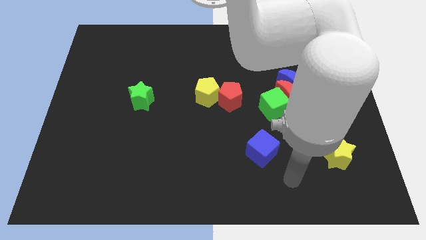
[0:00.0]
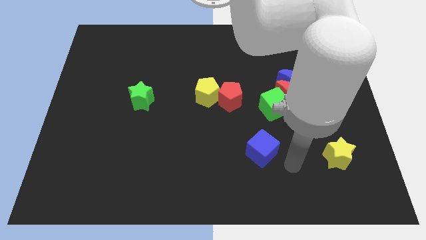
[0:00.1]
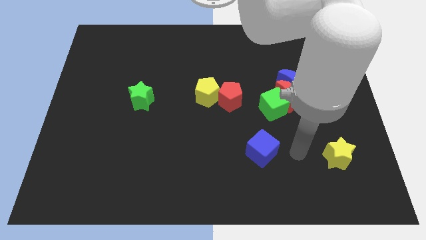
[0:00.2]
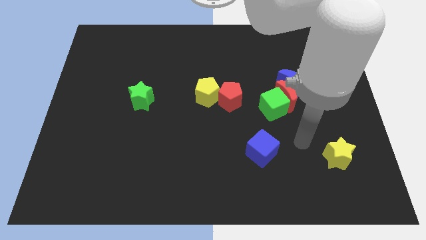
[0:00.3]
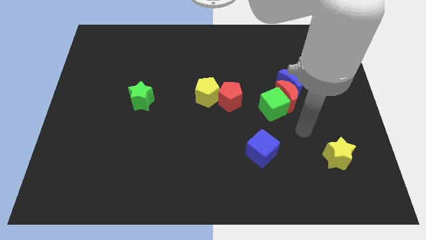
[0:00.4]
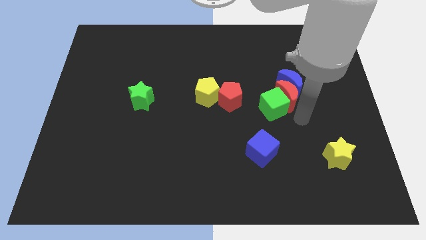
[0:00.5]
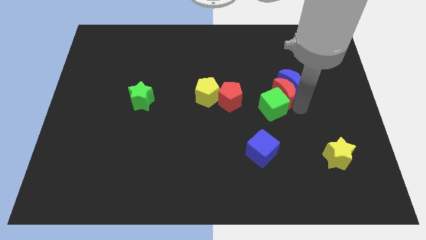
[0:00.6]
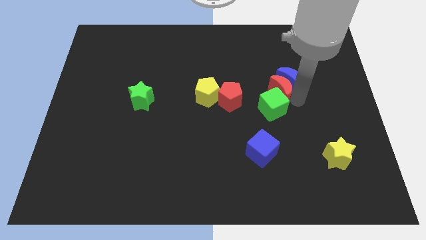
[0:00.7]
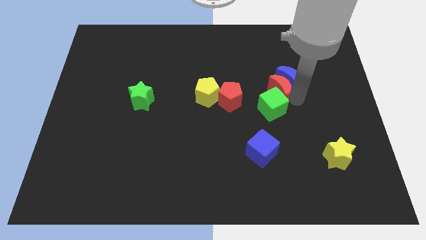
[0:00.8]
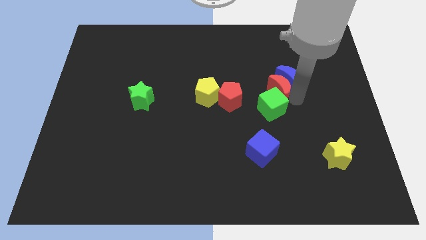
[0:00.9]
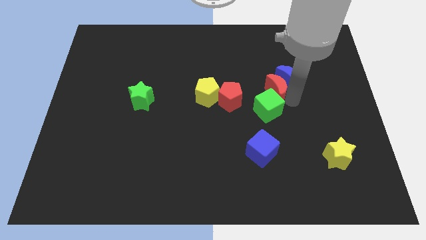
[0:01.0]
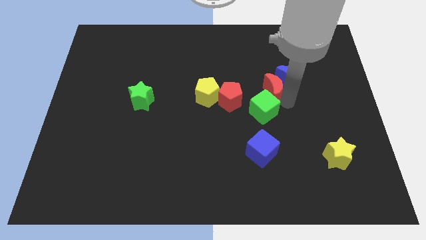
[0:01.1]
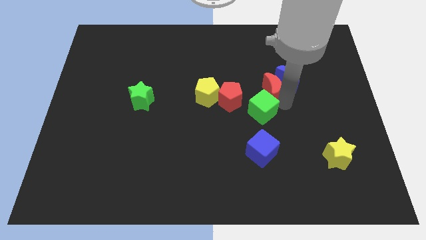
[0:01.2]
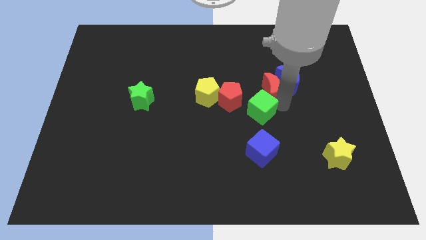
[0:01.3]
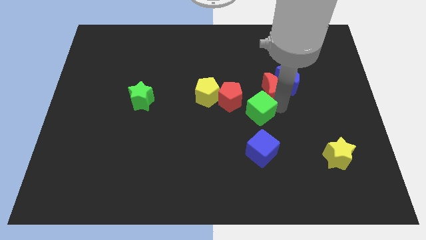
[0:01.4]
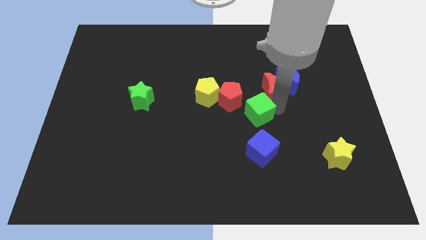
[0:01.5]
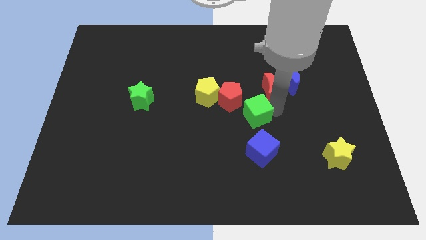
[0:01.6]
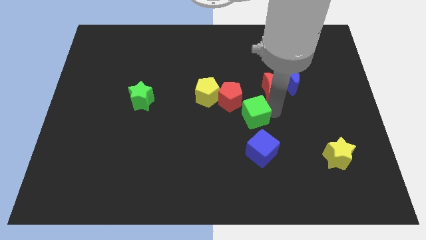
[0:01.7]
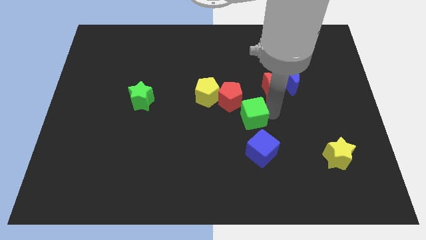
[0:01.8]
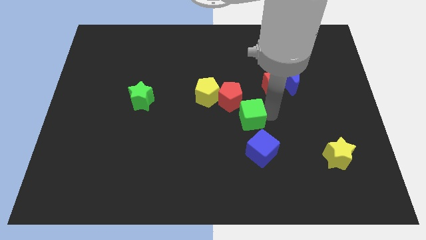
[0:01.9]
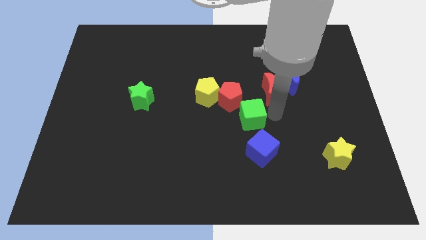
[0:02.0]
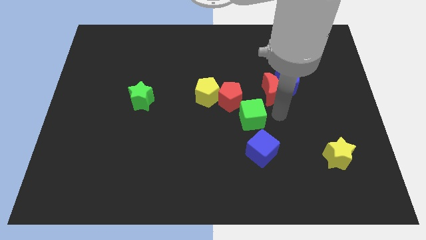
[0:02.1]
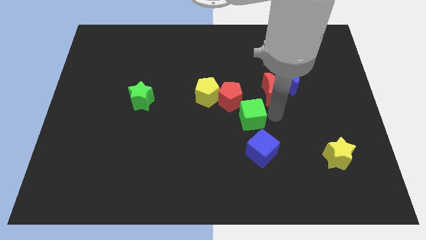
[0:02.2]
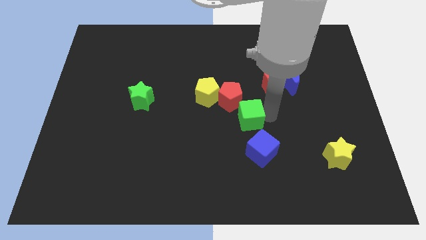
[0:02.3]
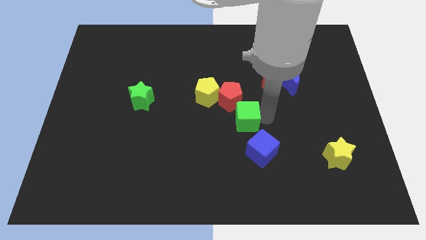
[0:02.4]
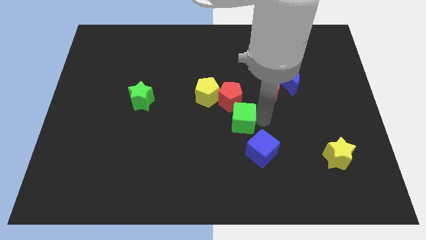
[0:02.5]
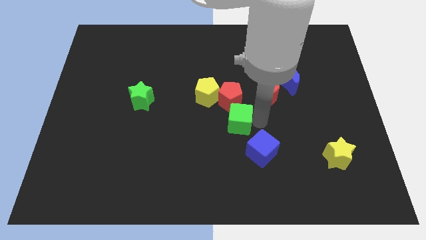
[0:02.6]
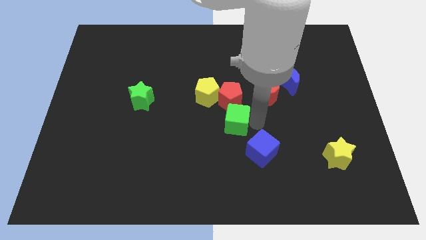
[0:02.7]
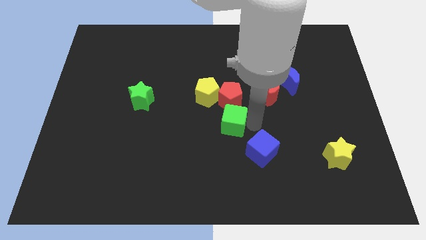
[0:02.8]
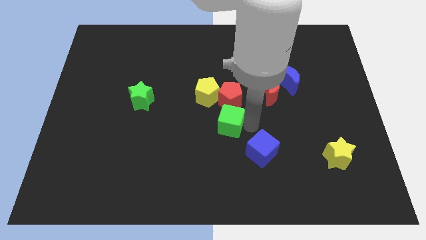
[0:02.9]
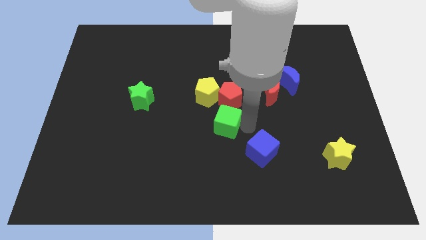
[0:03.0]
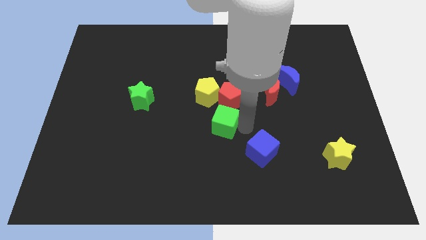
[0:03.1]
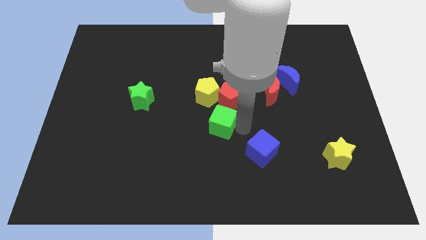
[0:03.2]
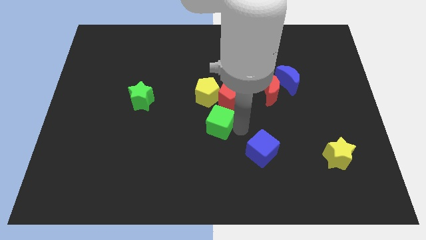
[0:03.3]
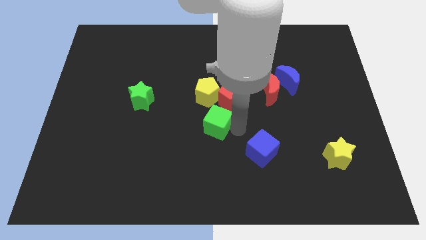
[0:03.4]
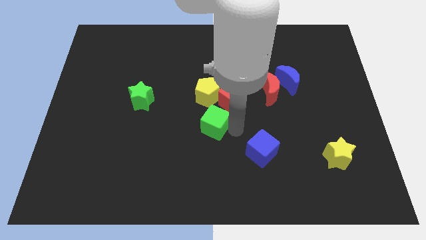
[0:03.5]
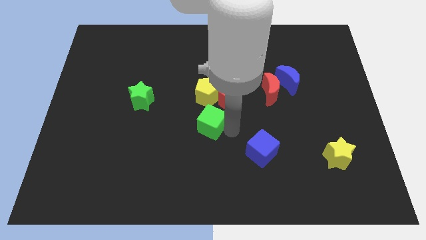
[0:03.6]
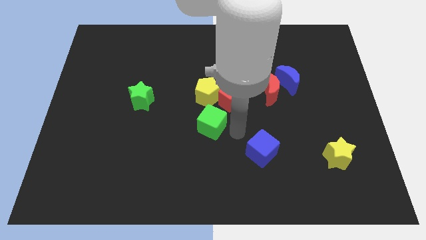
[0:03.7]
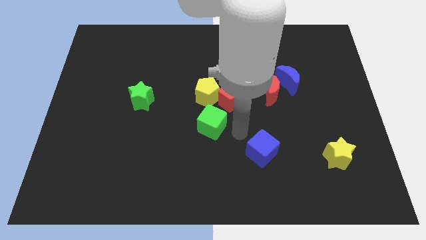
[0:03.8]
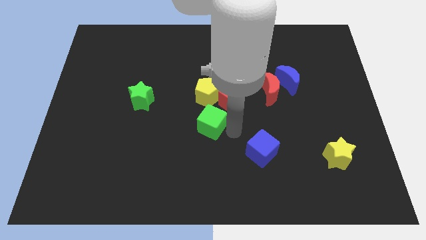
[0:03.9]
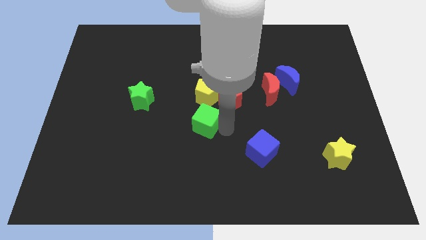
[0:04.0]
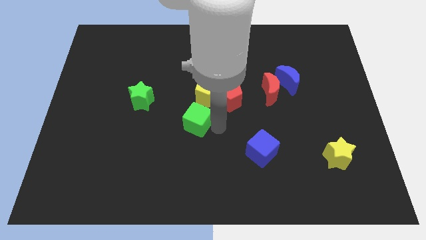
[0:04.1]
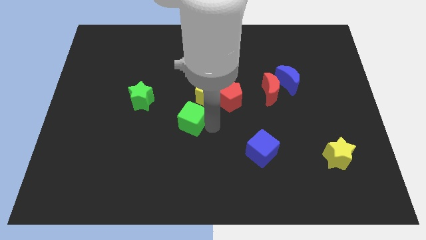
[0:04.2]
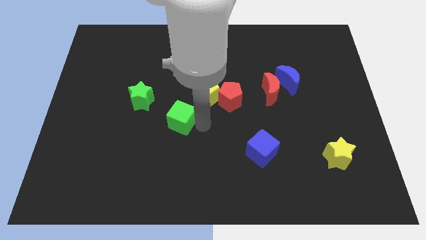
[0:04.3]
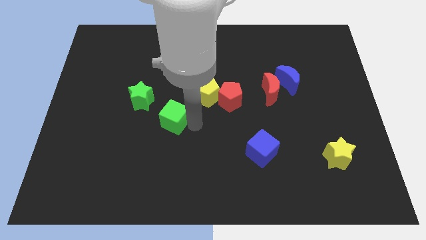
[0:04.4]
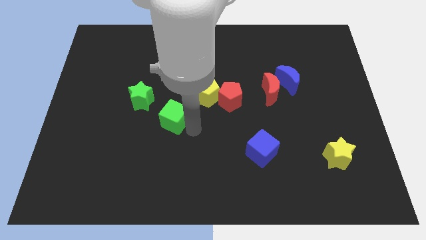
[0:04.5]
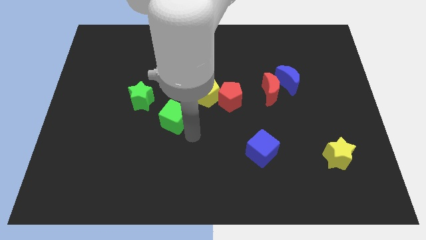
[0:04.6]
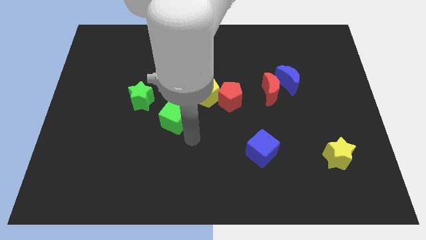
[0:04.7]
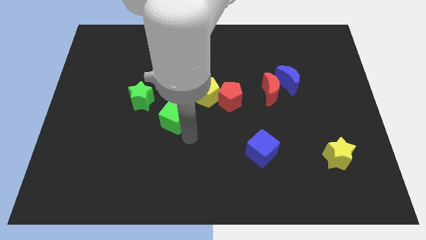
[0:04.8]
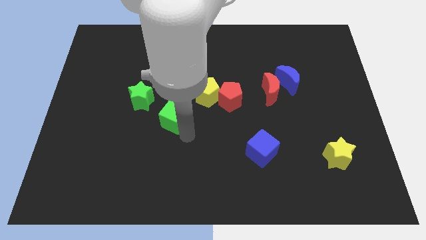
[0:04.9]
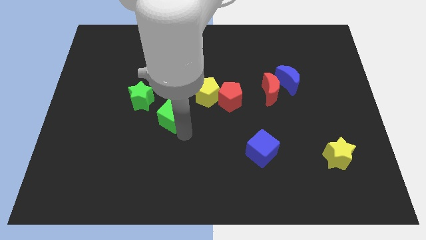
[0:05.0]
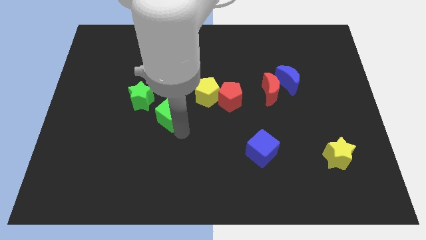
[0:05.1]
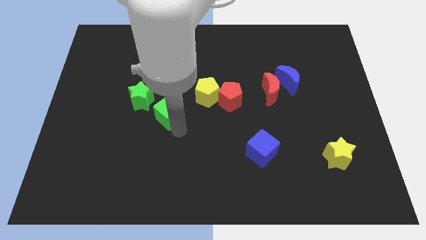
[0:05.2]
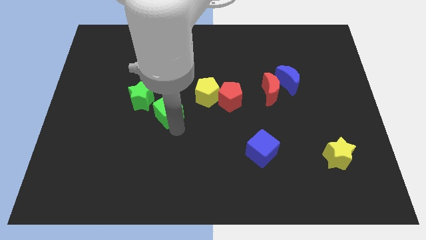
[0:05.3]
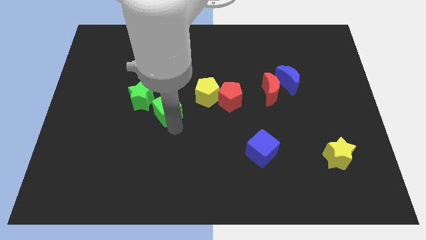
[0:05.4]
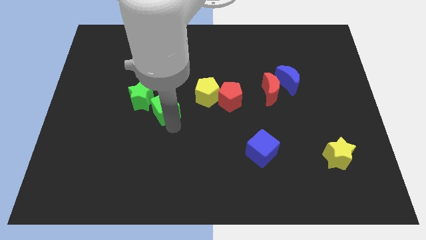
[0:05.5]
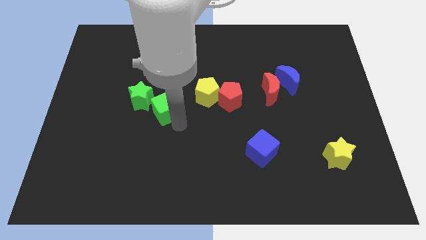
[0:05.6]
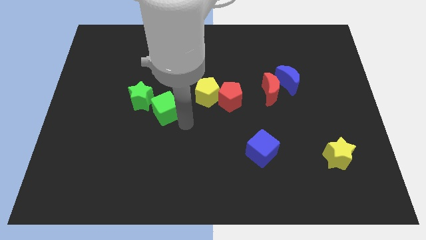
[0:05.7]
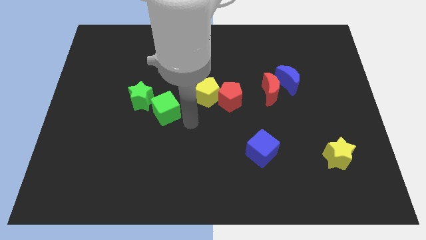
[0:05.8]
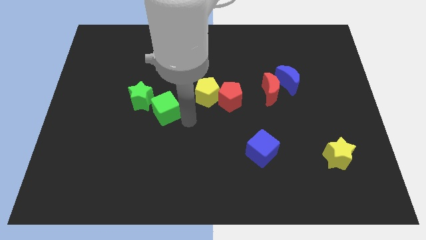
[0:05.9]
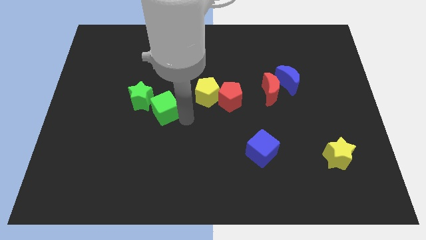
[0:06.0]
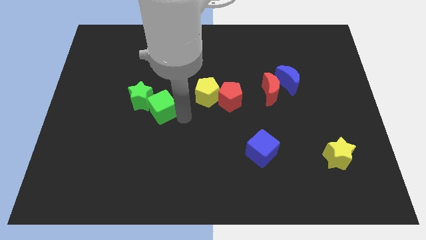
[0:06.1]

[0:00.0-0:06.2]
move the green cube next to the green star

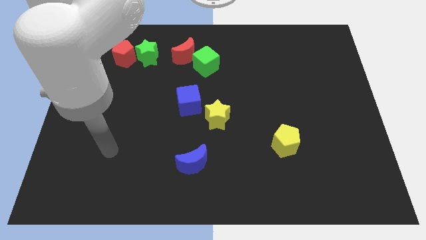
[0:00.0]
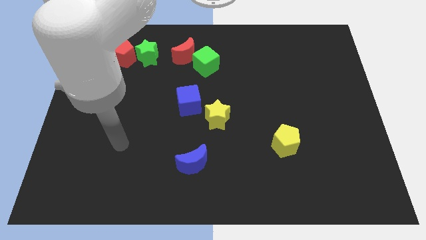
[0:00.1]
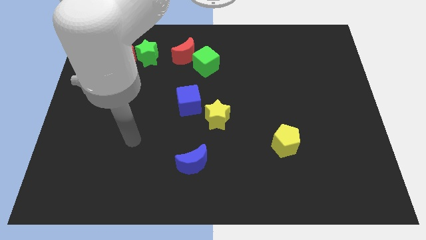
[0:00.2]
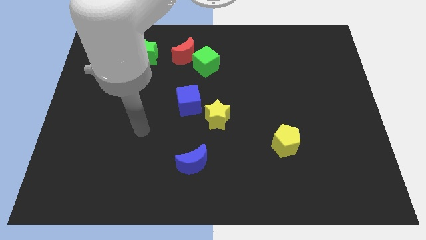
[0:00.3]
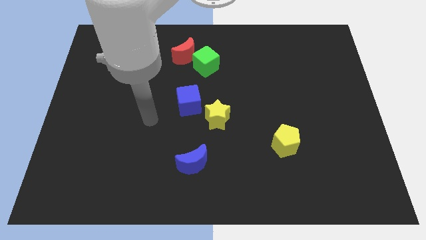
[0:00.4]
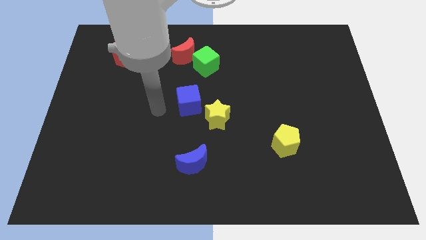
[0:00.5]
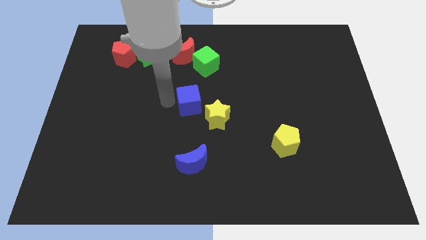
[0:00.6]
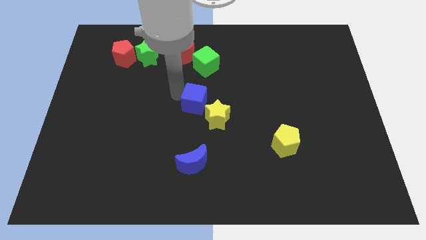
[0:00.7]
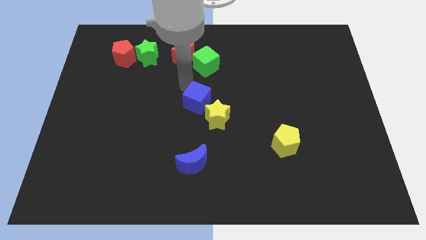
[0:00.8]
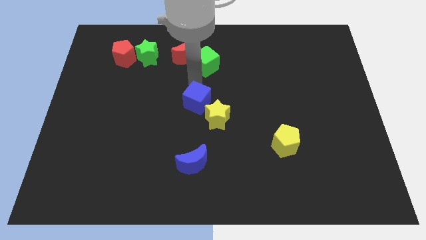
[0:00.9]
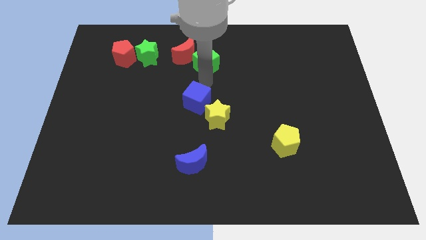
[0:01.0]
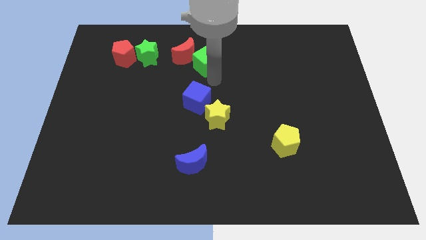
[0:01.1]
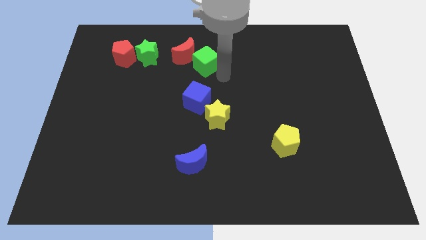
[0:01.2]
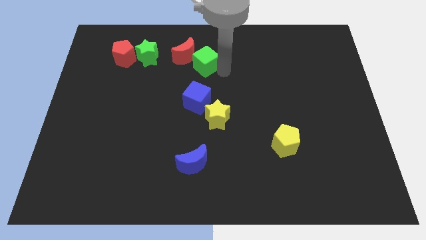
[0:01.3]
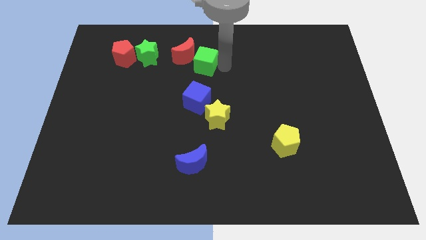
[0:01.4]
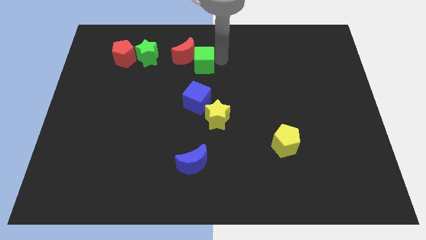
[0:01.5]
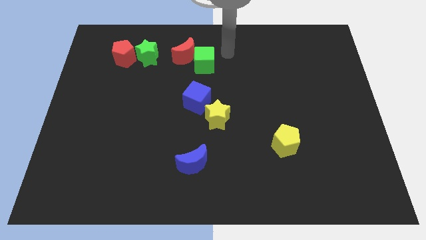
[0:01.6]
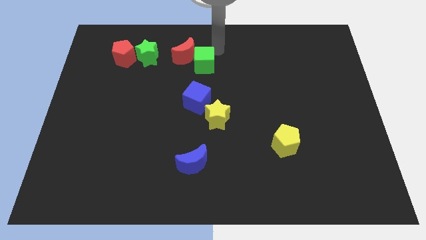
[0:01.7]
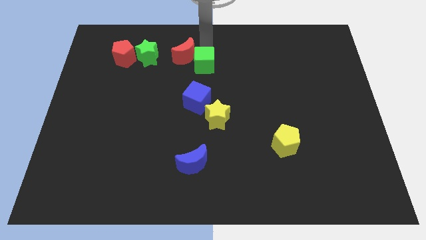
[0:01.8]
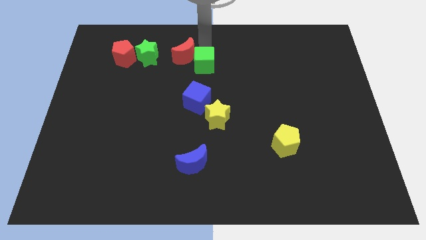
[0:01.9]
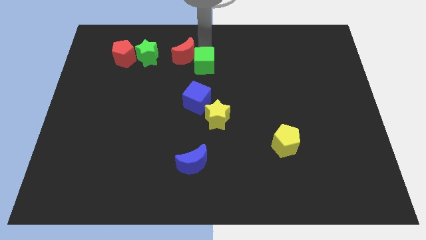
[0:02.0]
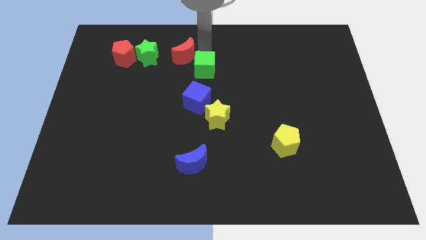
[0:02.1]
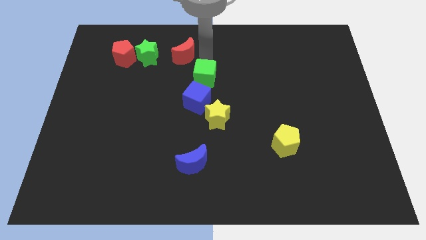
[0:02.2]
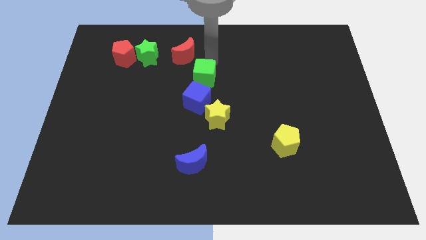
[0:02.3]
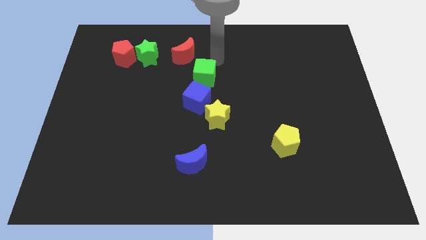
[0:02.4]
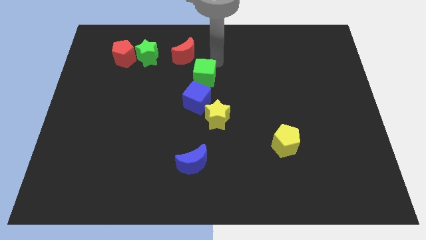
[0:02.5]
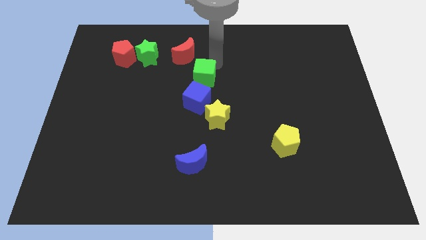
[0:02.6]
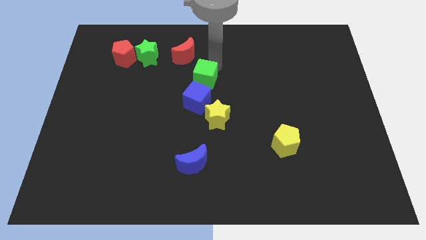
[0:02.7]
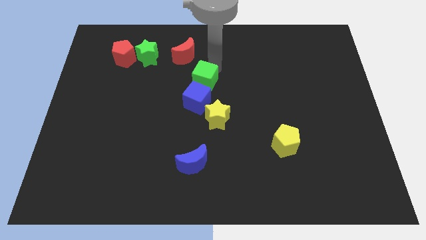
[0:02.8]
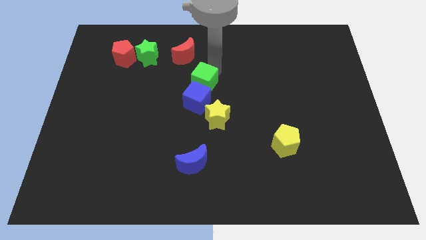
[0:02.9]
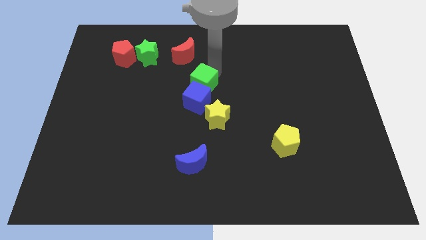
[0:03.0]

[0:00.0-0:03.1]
move the green cube towards the blue cube
